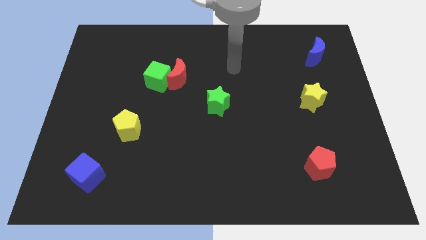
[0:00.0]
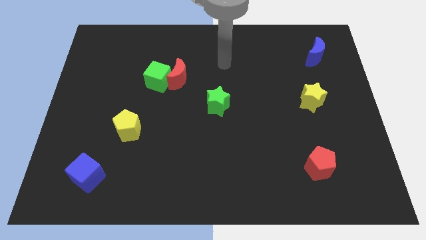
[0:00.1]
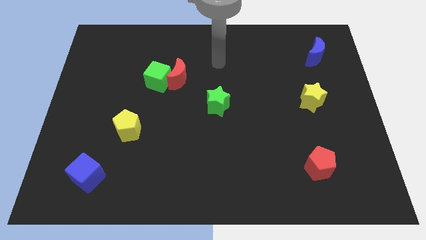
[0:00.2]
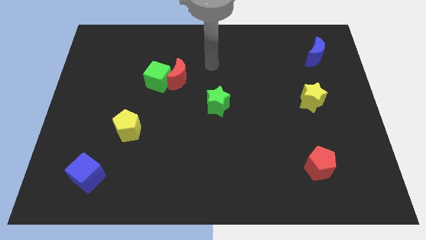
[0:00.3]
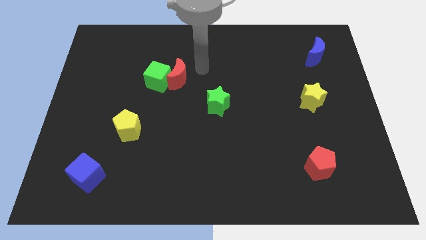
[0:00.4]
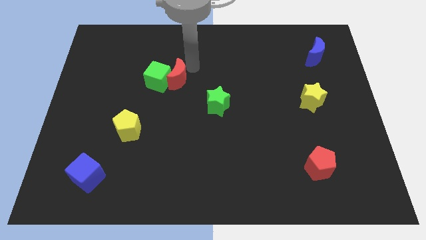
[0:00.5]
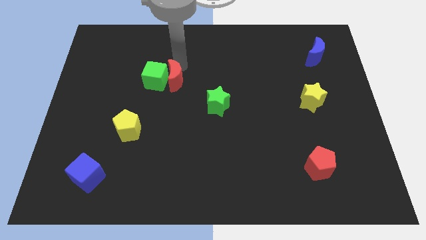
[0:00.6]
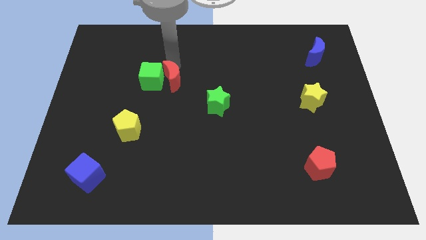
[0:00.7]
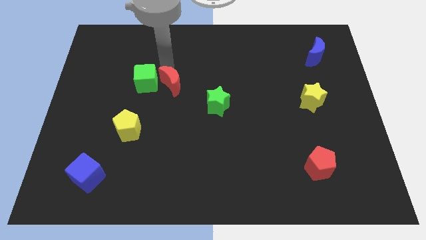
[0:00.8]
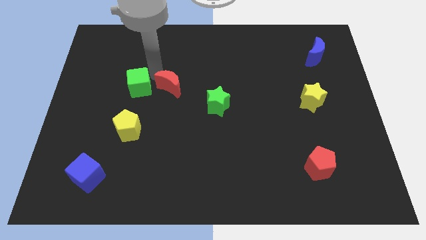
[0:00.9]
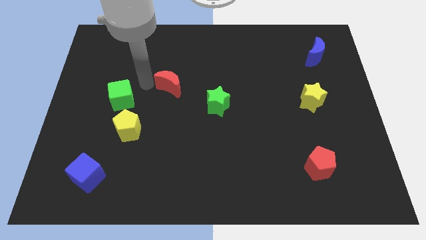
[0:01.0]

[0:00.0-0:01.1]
move the red moon away from the green cube

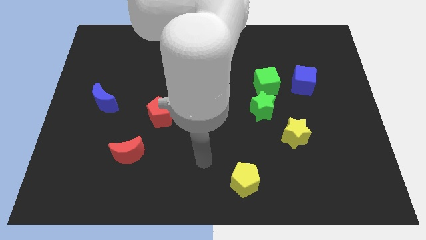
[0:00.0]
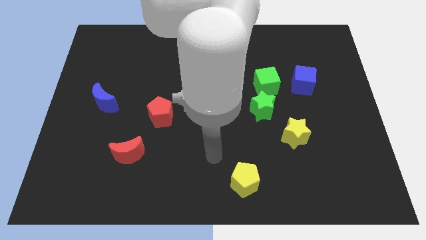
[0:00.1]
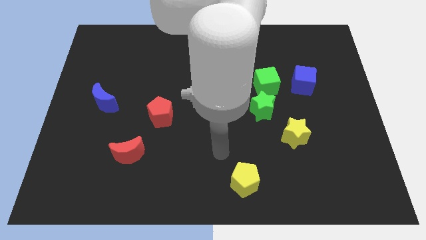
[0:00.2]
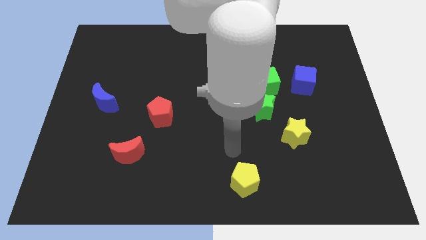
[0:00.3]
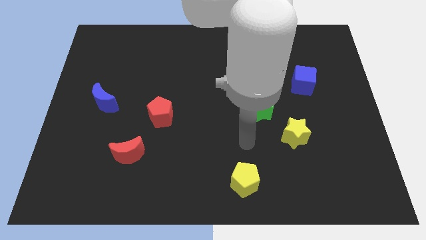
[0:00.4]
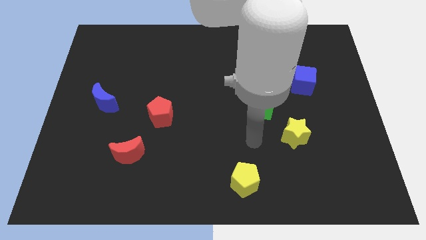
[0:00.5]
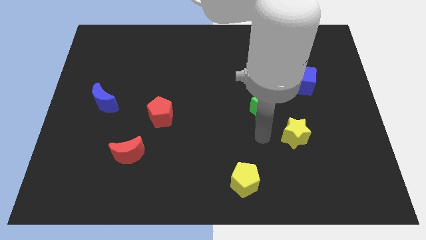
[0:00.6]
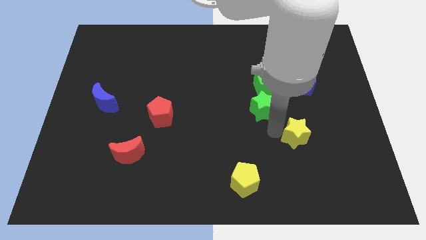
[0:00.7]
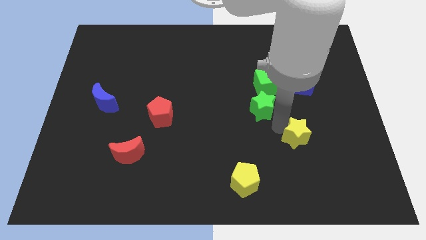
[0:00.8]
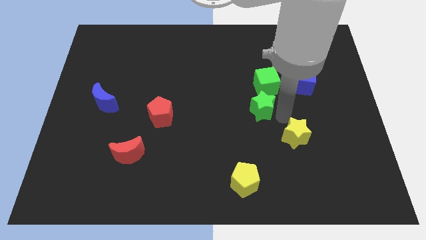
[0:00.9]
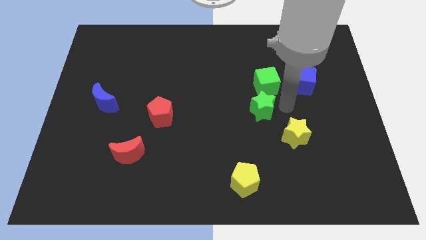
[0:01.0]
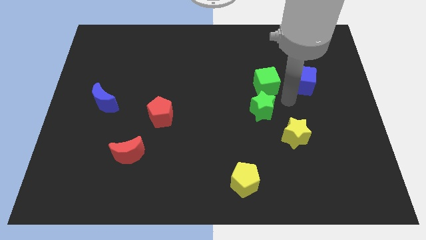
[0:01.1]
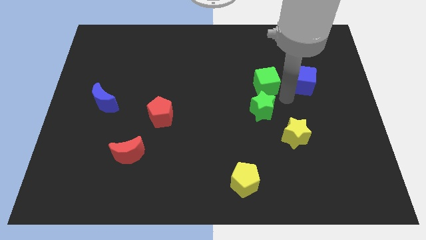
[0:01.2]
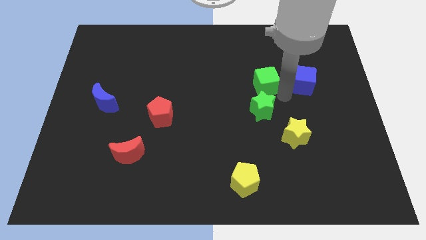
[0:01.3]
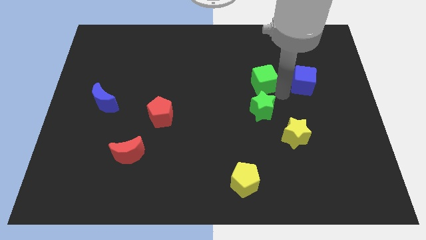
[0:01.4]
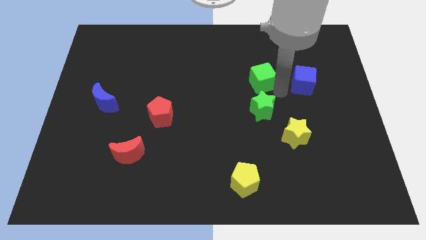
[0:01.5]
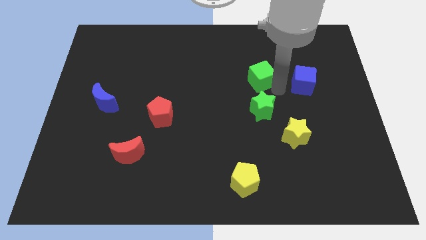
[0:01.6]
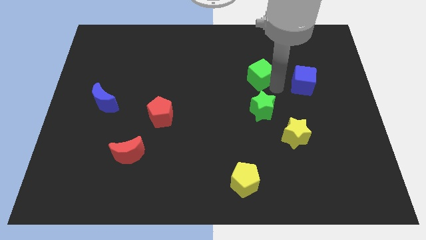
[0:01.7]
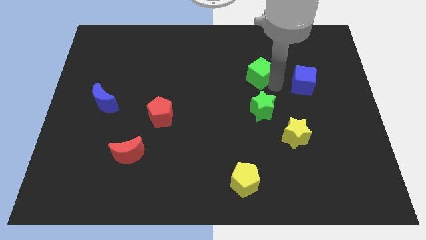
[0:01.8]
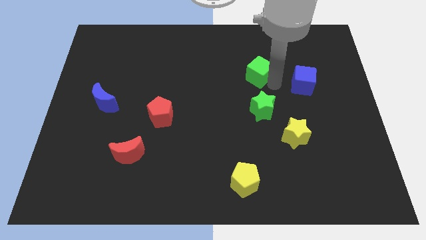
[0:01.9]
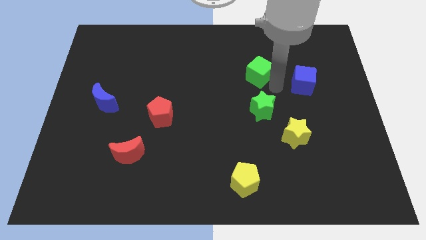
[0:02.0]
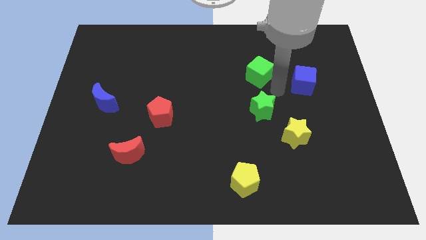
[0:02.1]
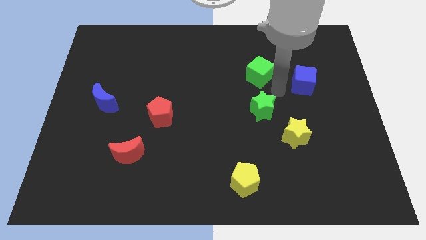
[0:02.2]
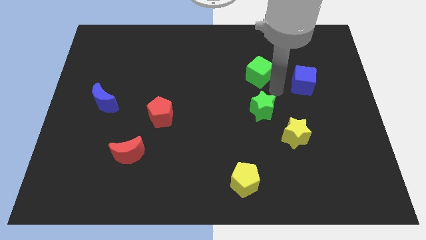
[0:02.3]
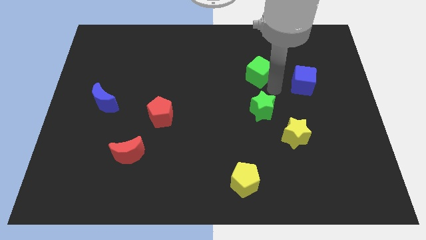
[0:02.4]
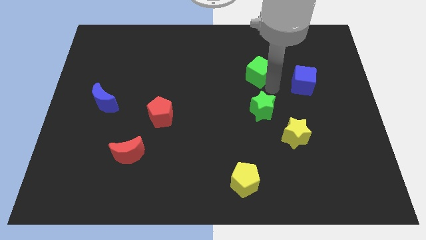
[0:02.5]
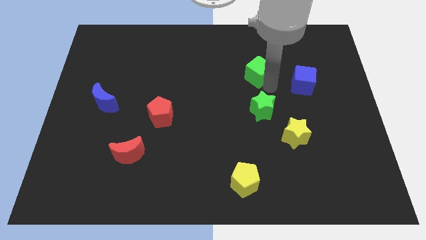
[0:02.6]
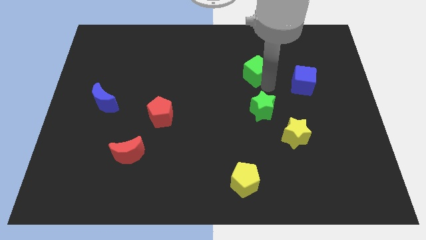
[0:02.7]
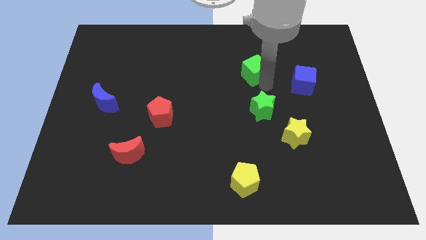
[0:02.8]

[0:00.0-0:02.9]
move the green cube away from the green star and blue cube

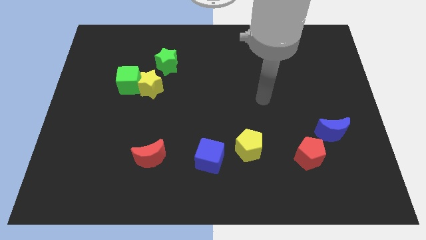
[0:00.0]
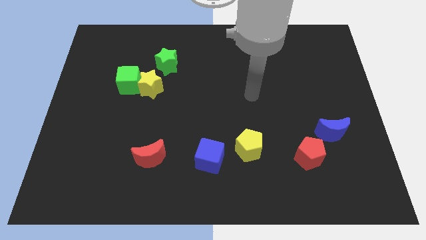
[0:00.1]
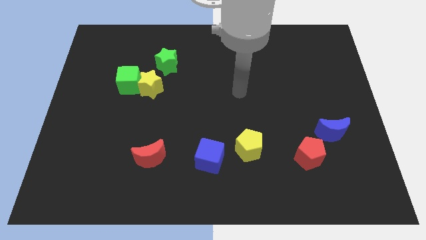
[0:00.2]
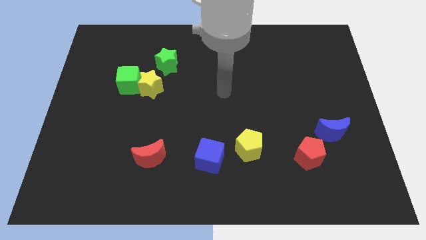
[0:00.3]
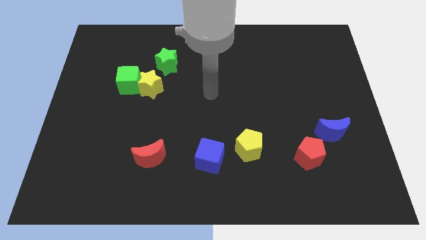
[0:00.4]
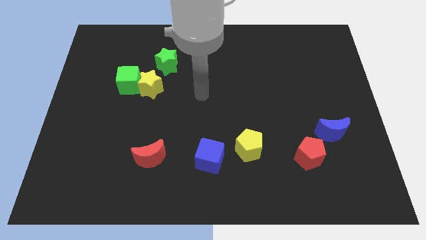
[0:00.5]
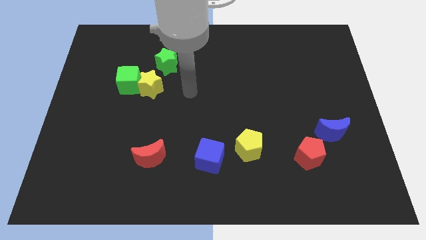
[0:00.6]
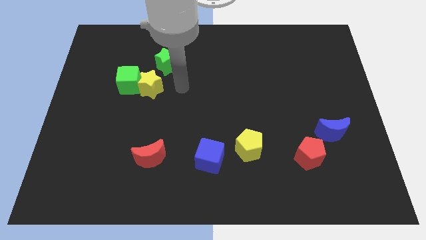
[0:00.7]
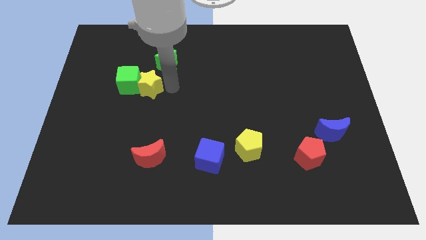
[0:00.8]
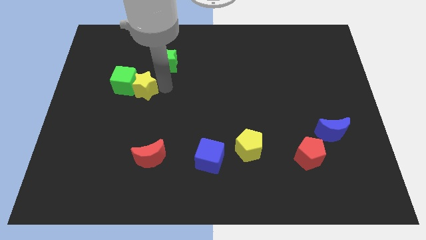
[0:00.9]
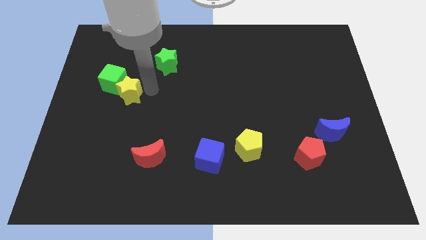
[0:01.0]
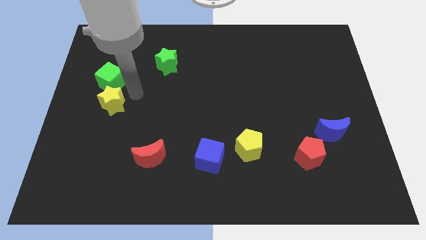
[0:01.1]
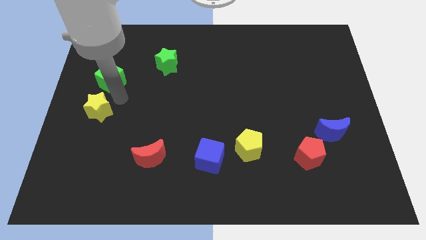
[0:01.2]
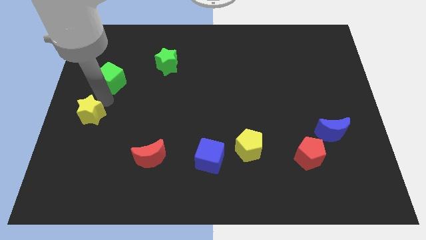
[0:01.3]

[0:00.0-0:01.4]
move the green cube away from the yellow star

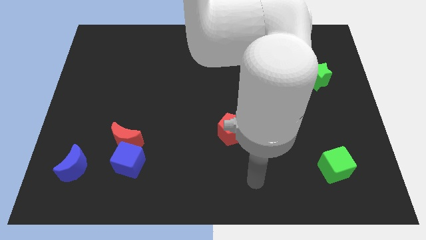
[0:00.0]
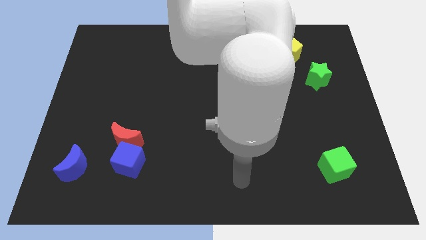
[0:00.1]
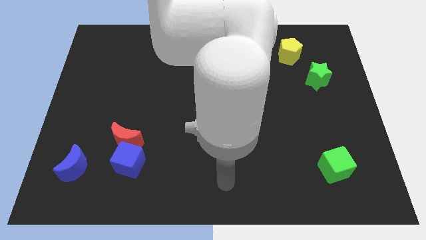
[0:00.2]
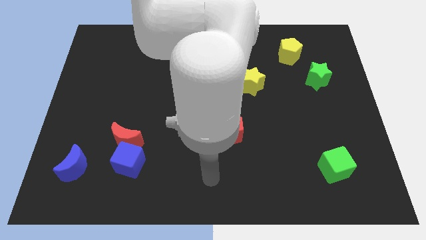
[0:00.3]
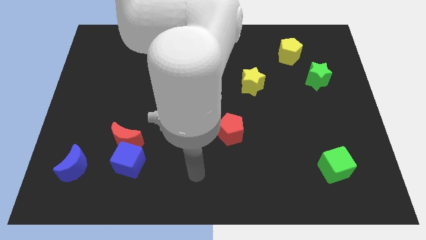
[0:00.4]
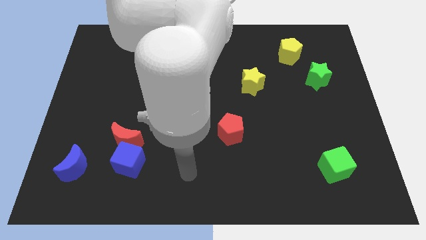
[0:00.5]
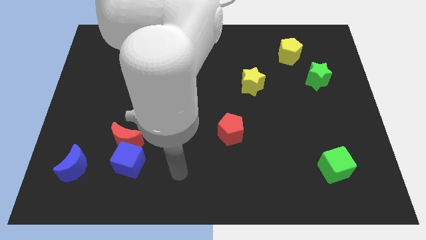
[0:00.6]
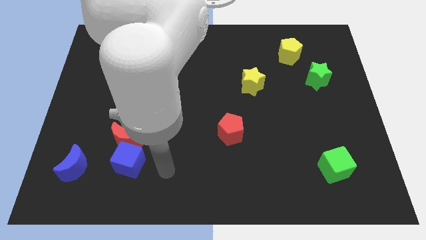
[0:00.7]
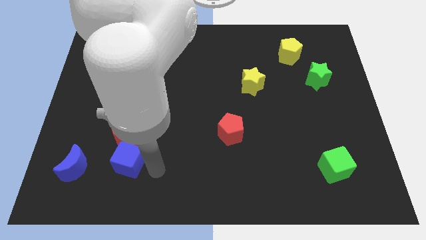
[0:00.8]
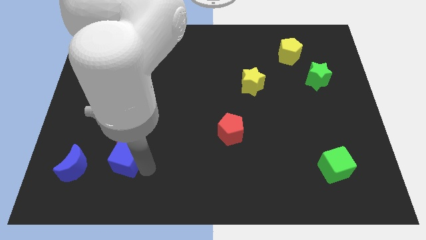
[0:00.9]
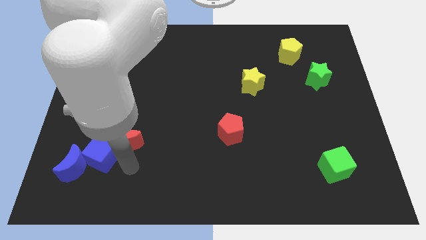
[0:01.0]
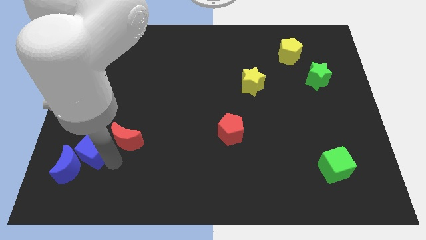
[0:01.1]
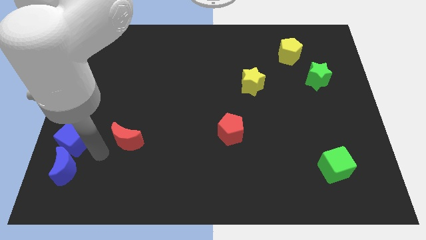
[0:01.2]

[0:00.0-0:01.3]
separate the red moon from the blue cube

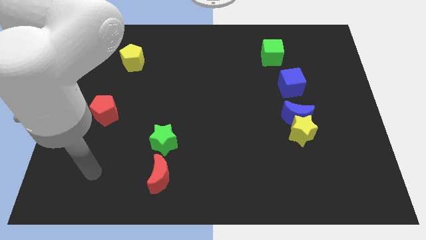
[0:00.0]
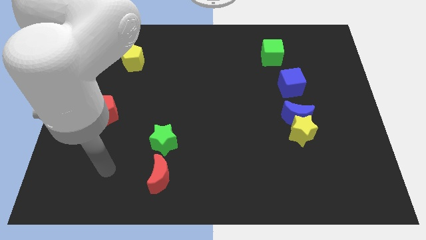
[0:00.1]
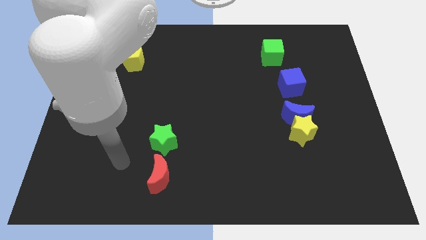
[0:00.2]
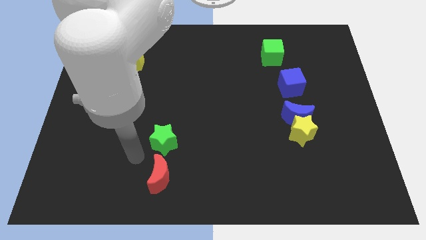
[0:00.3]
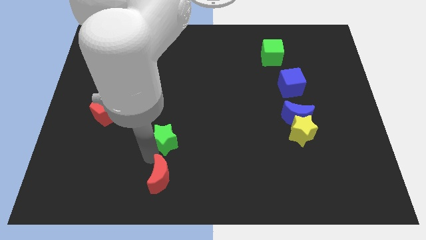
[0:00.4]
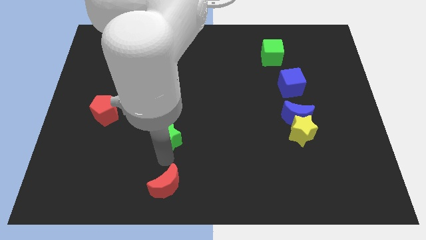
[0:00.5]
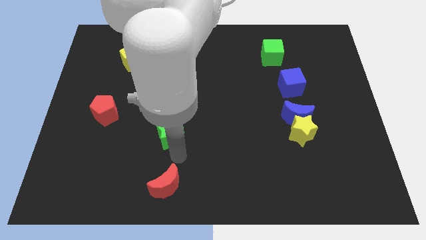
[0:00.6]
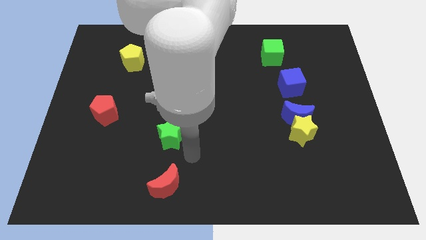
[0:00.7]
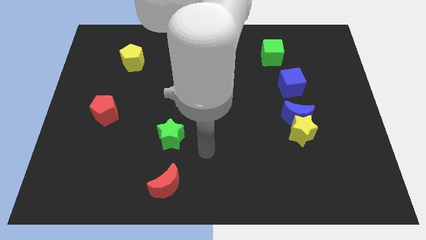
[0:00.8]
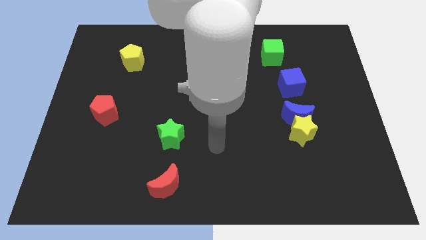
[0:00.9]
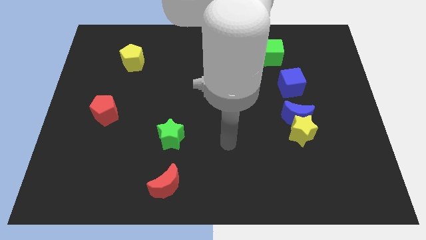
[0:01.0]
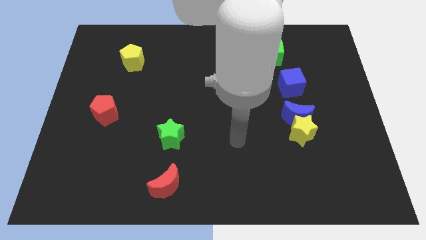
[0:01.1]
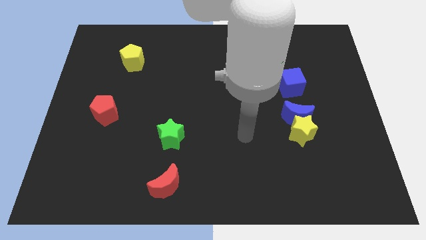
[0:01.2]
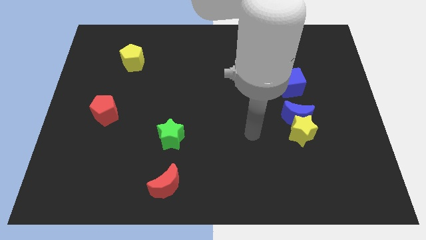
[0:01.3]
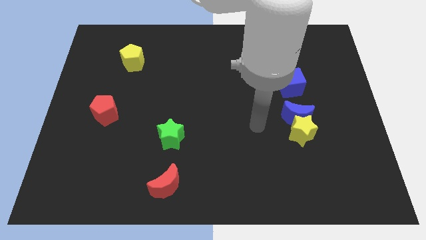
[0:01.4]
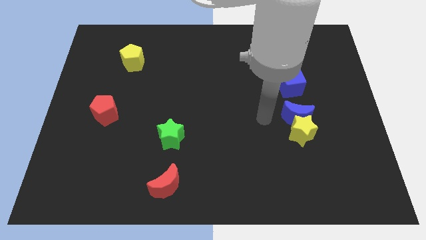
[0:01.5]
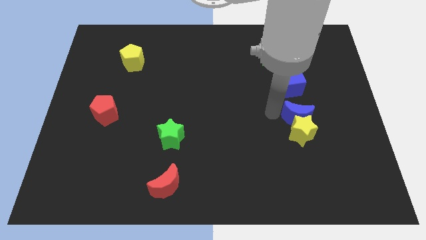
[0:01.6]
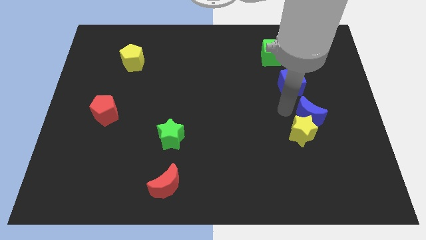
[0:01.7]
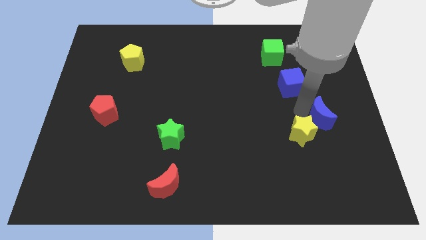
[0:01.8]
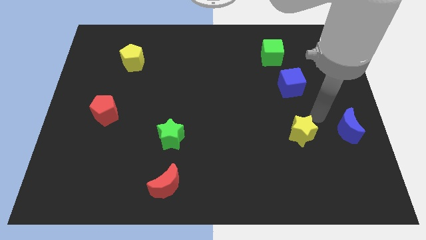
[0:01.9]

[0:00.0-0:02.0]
separate the yellow star from the blue moon

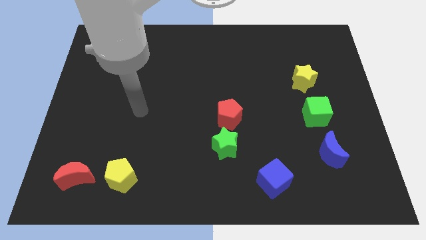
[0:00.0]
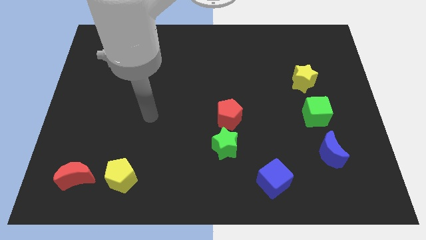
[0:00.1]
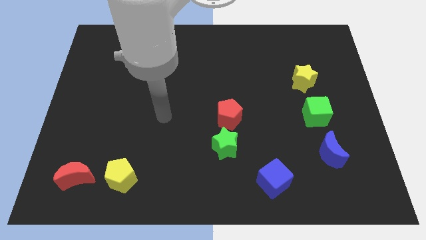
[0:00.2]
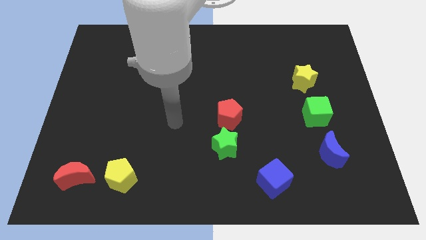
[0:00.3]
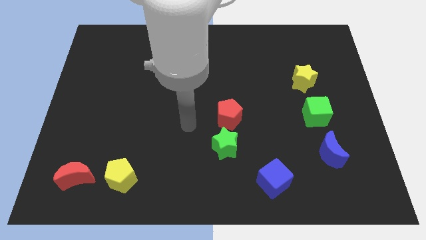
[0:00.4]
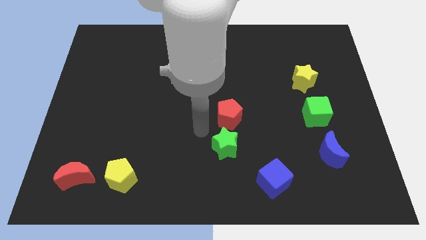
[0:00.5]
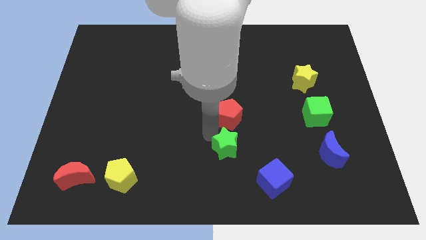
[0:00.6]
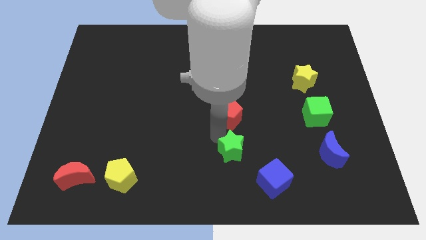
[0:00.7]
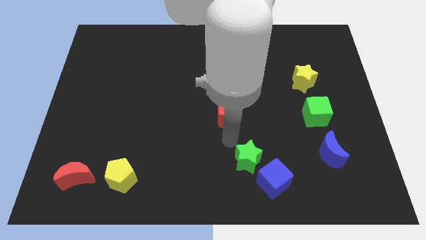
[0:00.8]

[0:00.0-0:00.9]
pull the red pentagon apart from the green star
